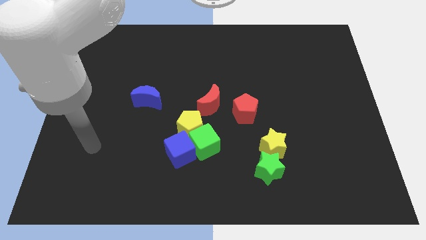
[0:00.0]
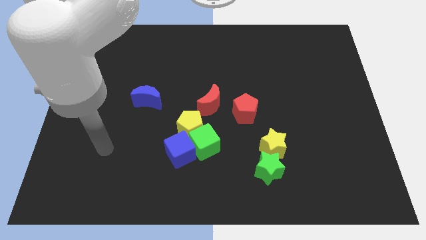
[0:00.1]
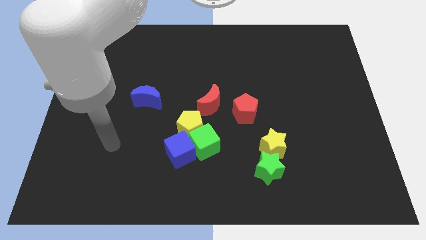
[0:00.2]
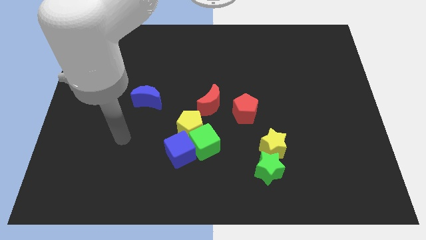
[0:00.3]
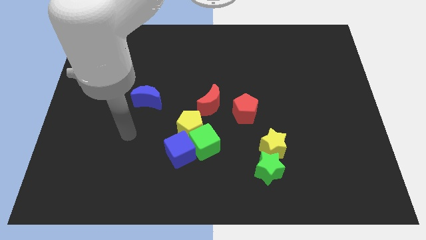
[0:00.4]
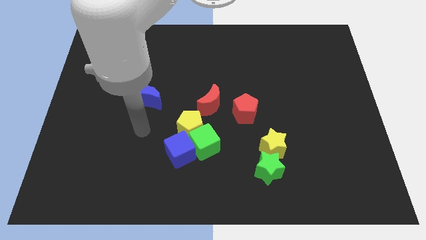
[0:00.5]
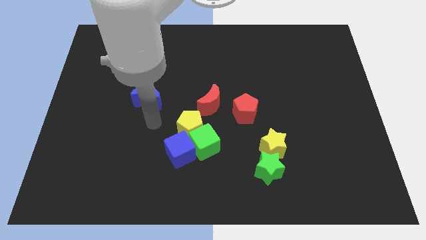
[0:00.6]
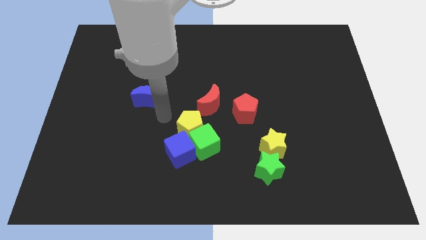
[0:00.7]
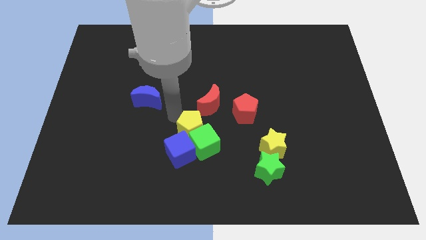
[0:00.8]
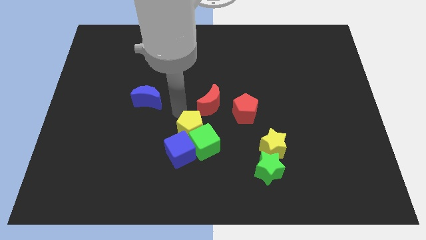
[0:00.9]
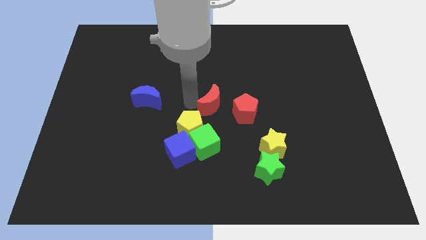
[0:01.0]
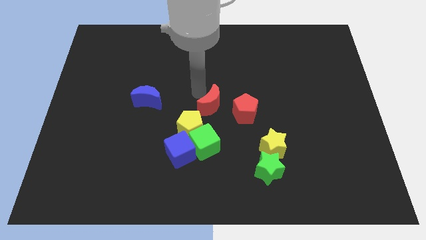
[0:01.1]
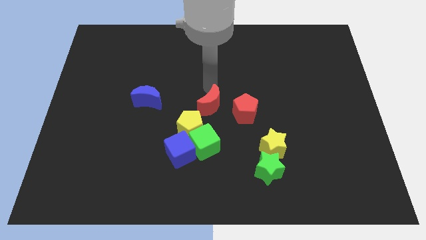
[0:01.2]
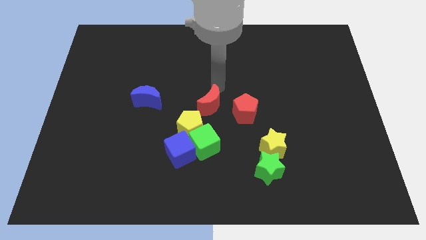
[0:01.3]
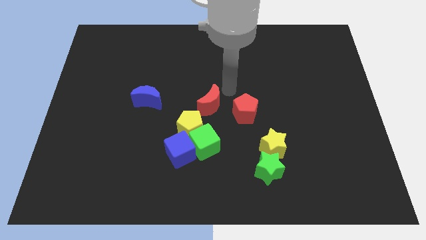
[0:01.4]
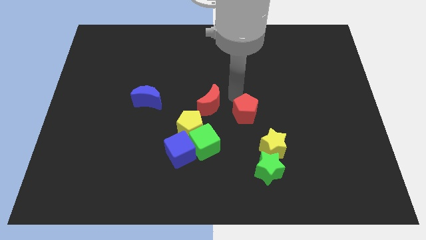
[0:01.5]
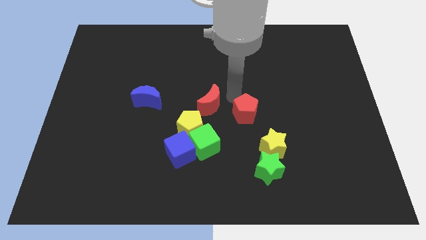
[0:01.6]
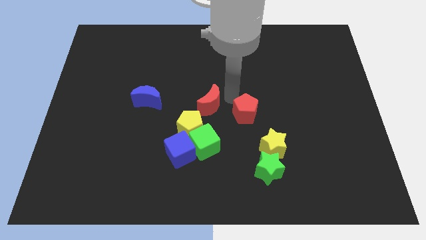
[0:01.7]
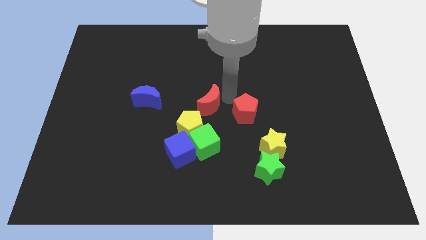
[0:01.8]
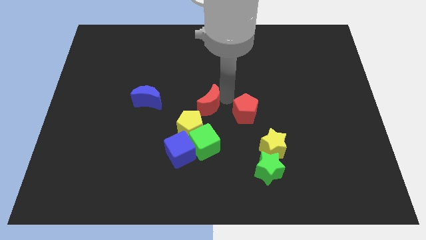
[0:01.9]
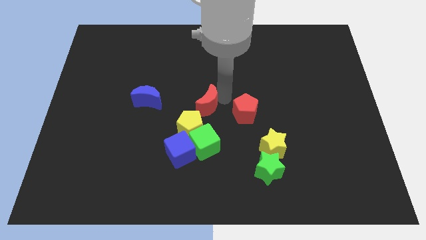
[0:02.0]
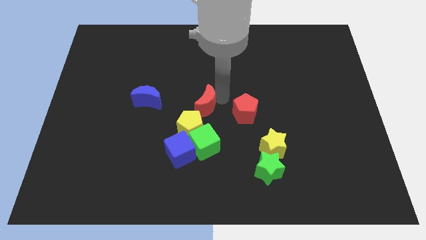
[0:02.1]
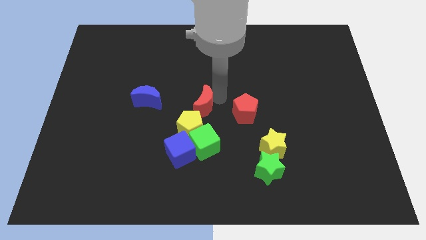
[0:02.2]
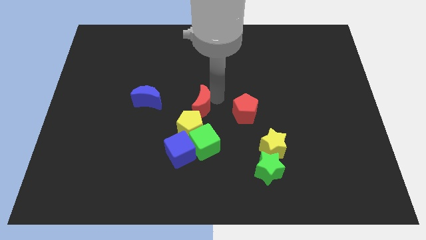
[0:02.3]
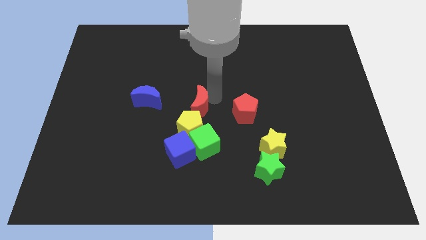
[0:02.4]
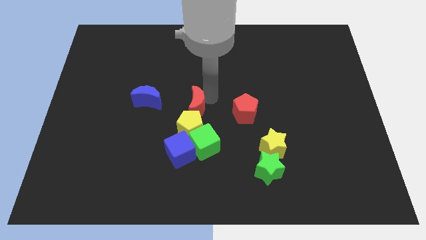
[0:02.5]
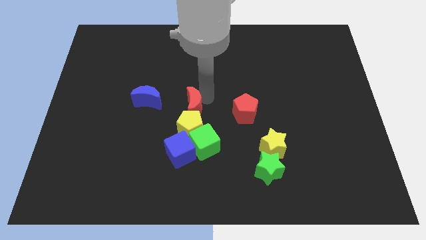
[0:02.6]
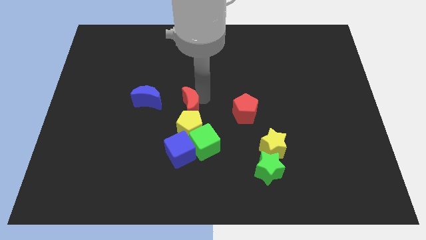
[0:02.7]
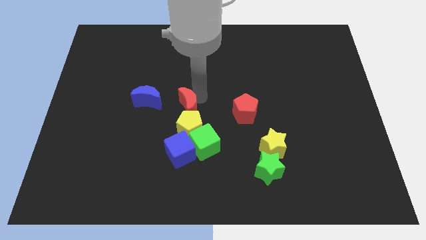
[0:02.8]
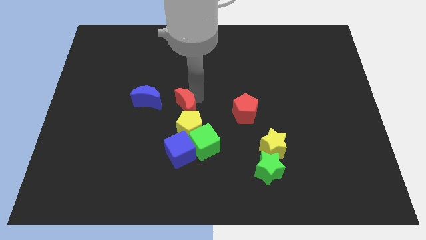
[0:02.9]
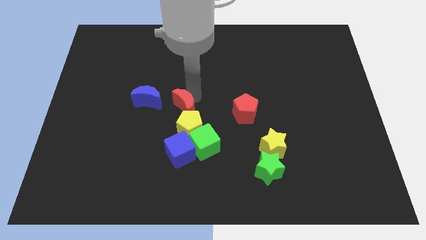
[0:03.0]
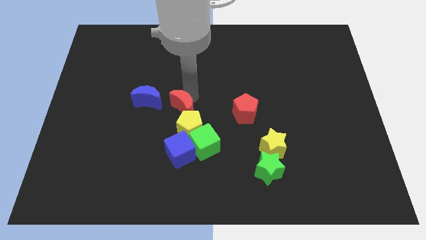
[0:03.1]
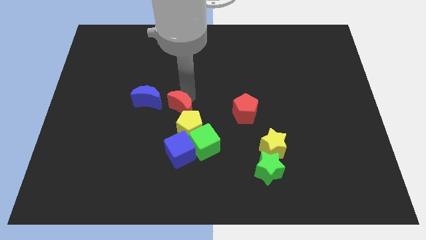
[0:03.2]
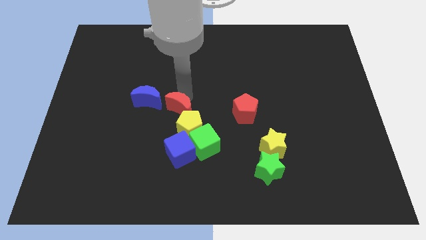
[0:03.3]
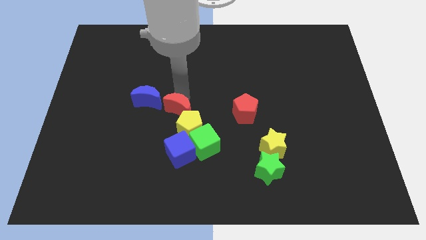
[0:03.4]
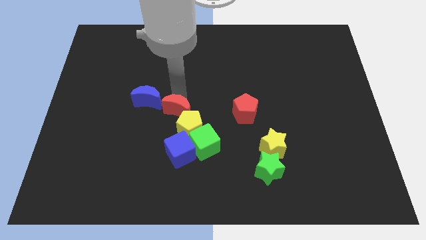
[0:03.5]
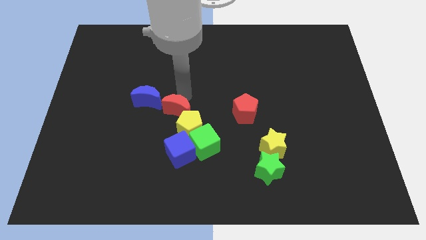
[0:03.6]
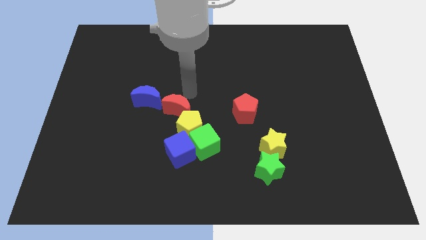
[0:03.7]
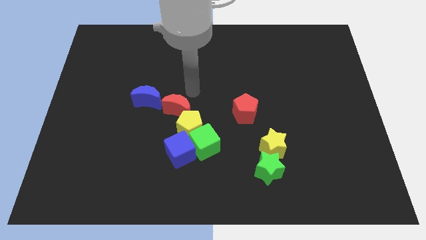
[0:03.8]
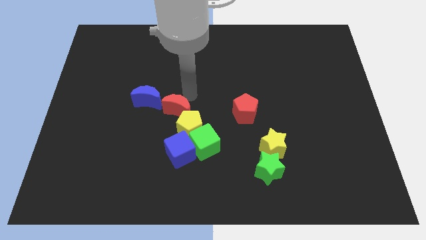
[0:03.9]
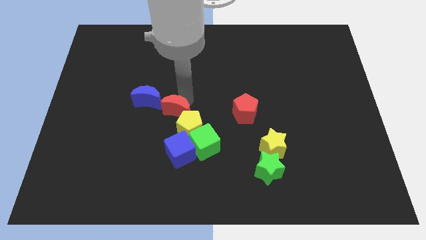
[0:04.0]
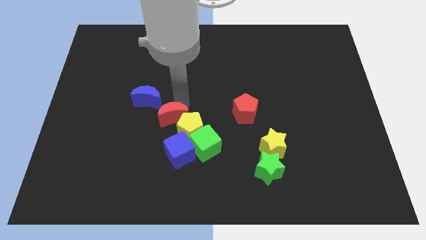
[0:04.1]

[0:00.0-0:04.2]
slightly move the red moon diagonally down and to the left

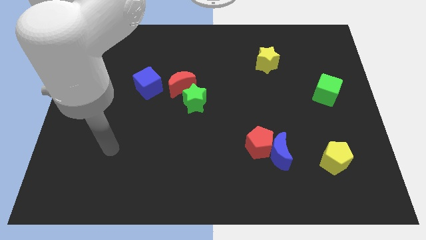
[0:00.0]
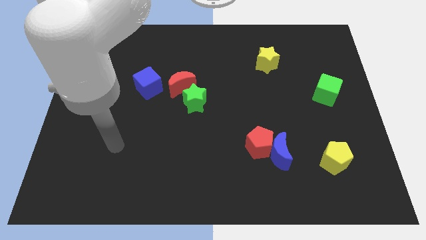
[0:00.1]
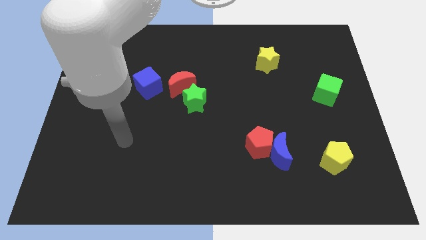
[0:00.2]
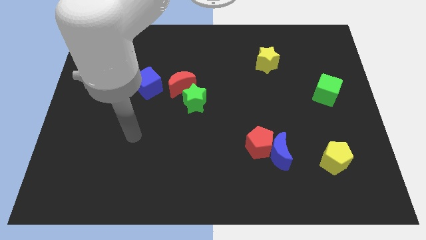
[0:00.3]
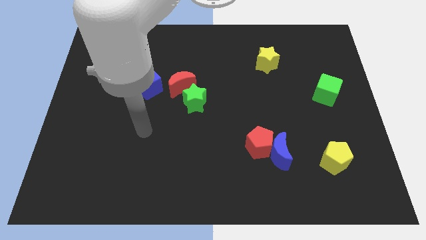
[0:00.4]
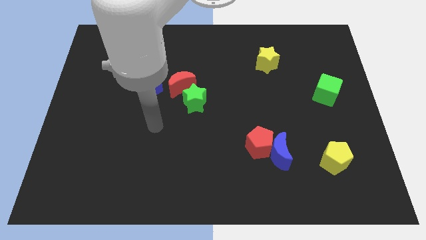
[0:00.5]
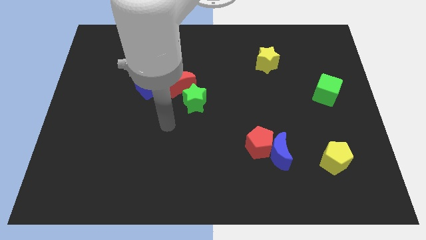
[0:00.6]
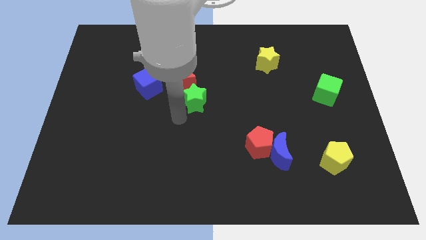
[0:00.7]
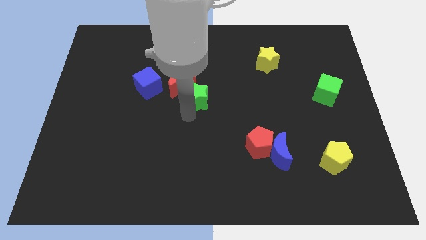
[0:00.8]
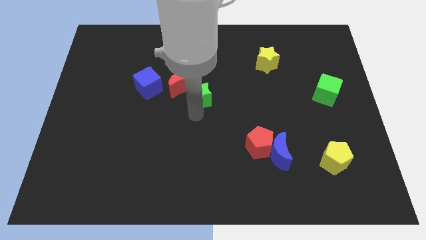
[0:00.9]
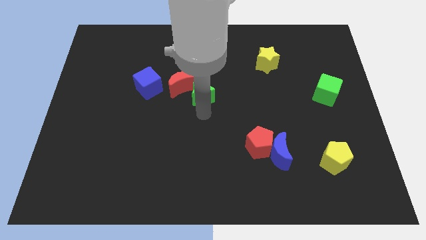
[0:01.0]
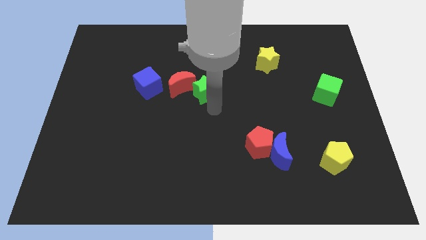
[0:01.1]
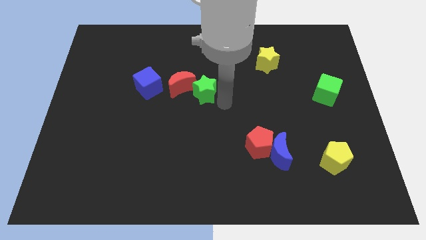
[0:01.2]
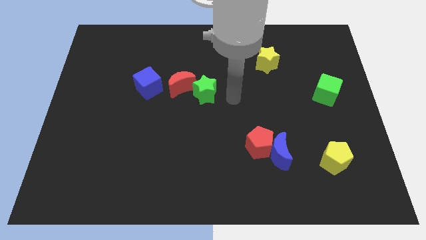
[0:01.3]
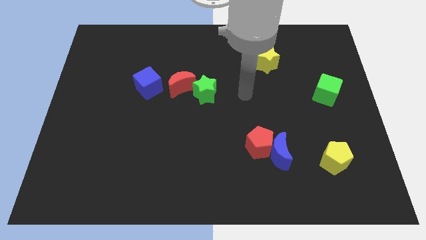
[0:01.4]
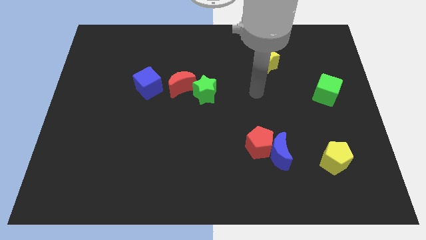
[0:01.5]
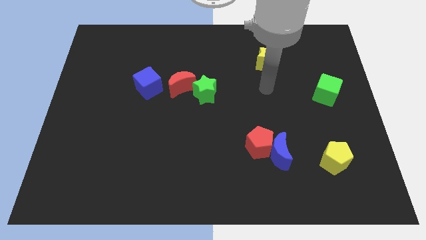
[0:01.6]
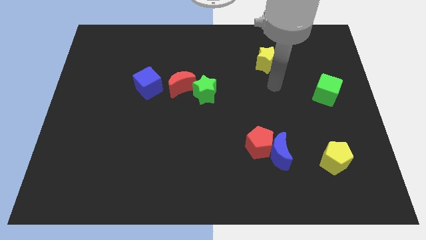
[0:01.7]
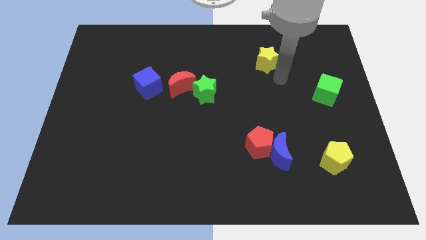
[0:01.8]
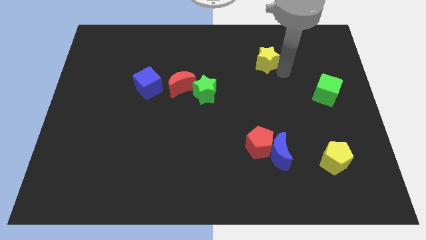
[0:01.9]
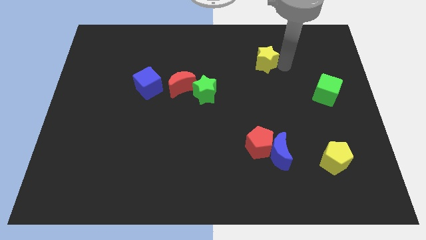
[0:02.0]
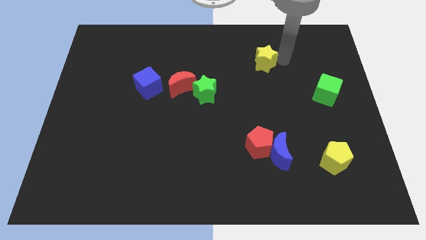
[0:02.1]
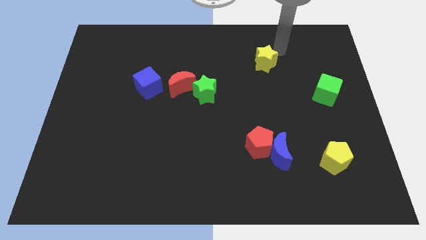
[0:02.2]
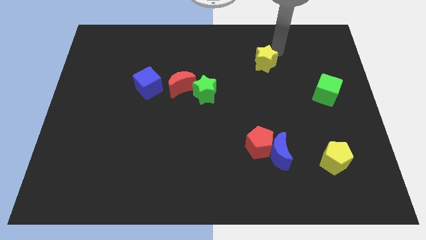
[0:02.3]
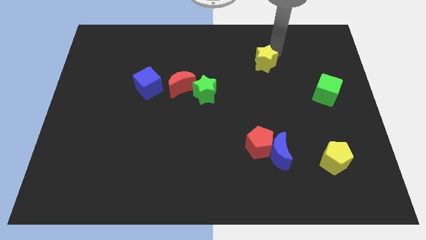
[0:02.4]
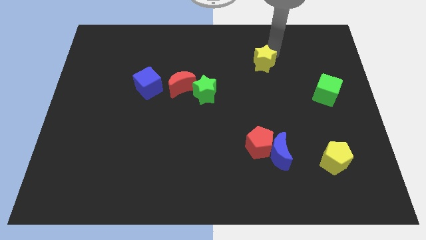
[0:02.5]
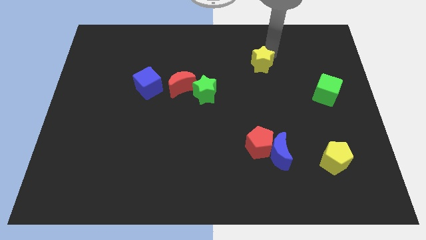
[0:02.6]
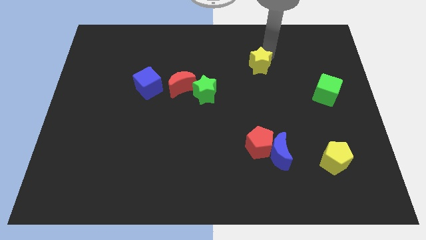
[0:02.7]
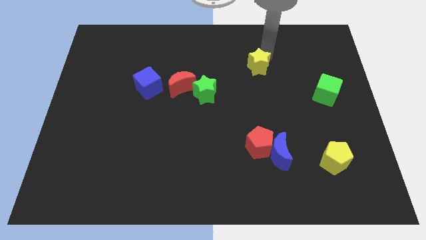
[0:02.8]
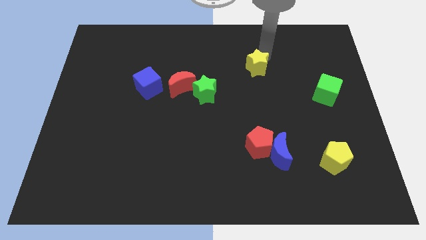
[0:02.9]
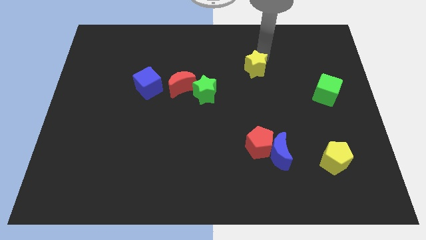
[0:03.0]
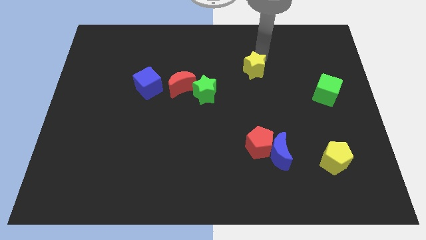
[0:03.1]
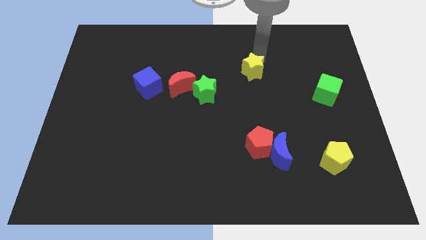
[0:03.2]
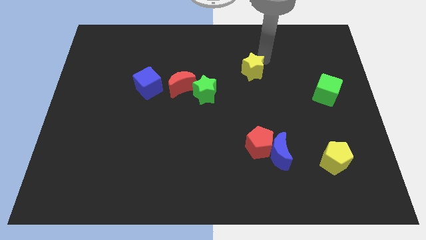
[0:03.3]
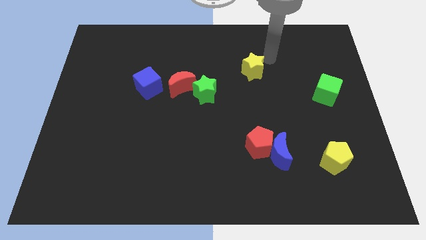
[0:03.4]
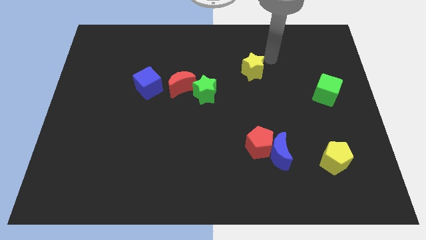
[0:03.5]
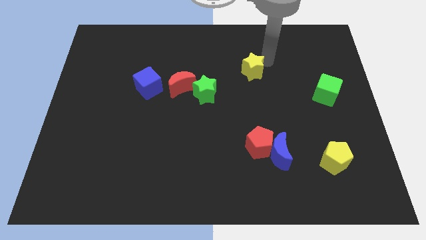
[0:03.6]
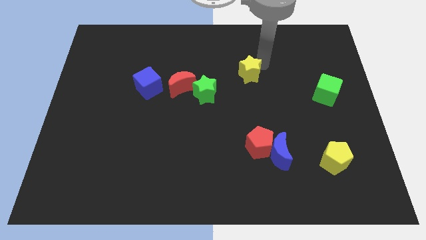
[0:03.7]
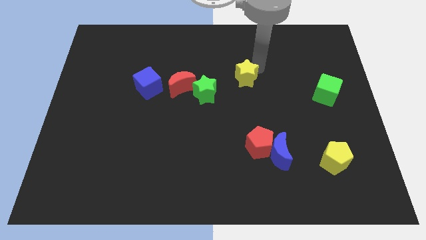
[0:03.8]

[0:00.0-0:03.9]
move the yellow star a bit downwards and left
